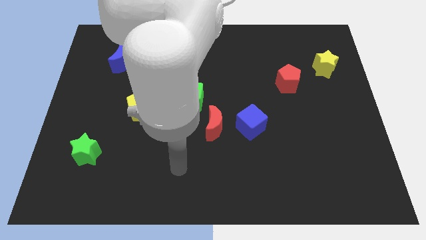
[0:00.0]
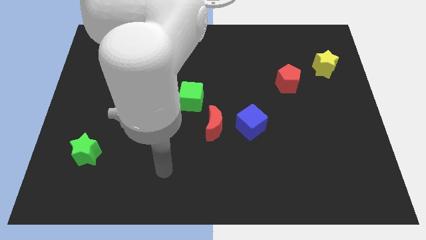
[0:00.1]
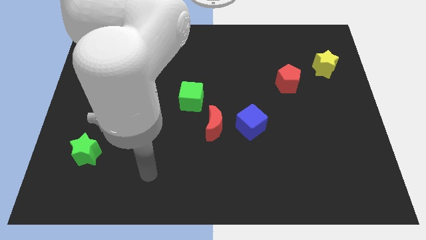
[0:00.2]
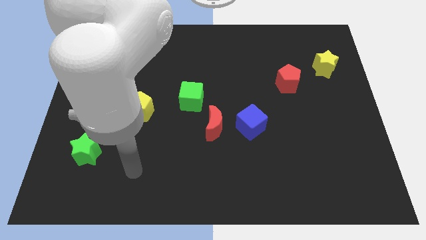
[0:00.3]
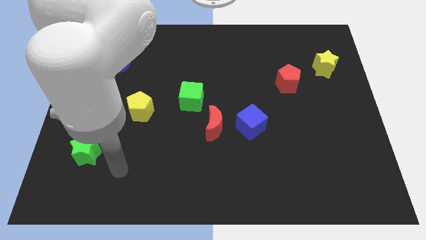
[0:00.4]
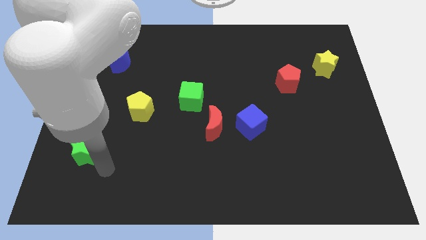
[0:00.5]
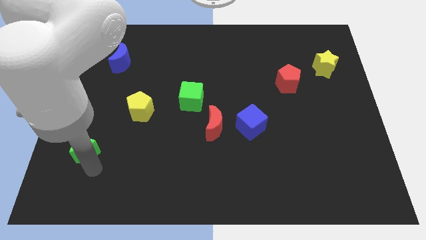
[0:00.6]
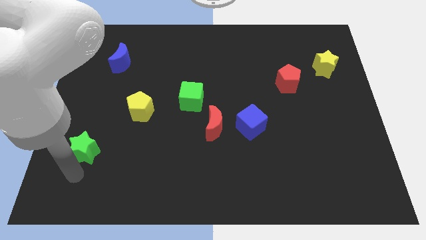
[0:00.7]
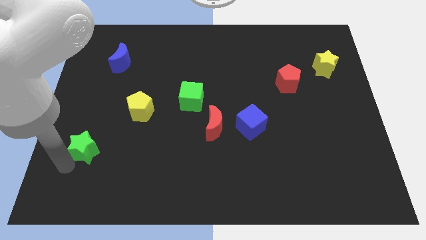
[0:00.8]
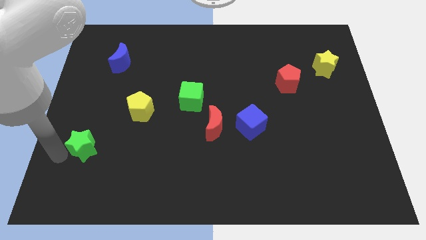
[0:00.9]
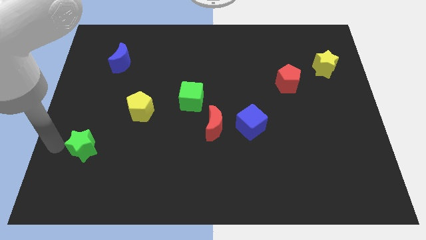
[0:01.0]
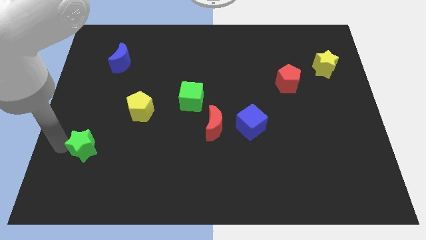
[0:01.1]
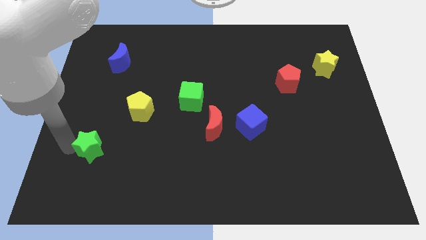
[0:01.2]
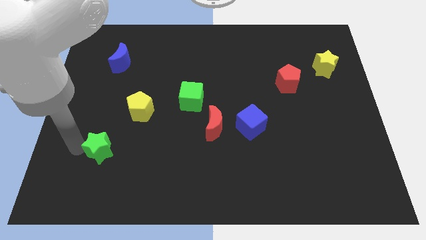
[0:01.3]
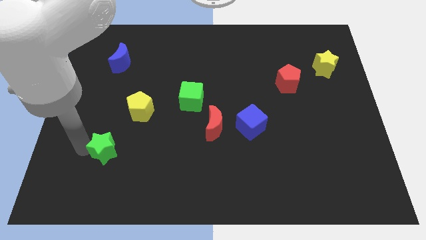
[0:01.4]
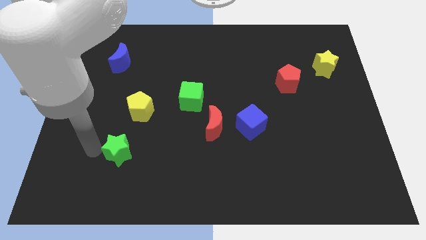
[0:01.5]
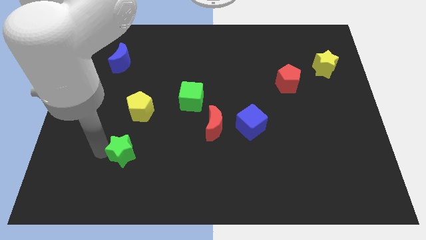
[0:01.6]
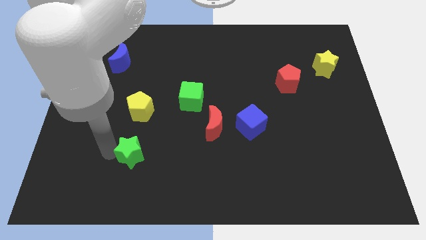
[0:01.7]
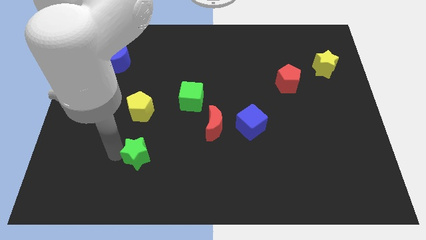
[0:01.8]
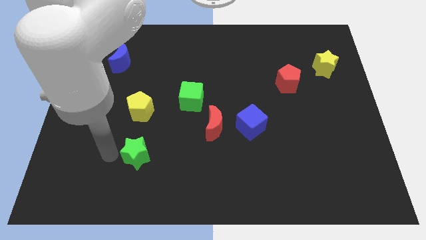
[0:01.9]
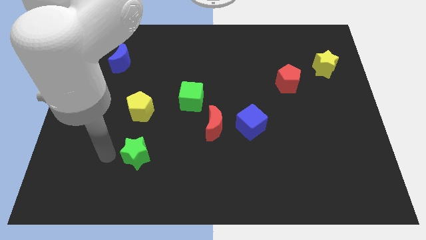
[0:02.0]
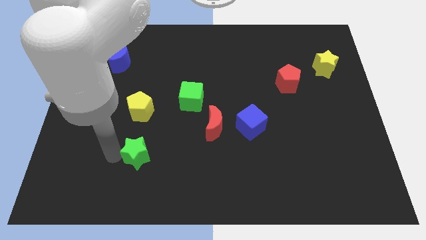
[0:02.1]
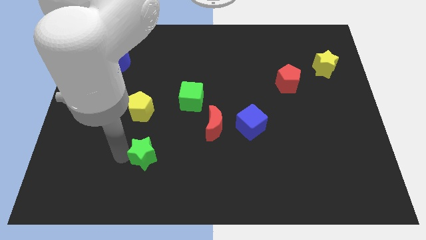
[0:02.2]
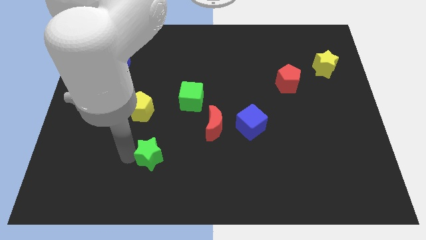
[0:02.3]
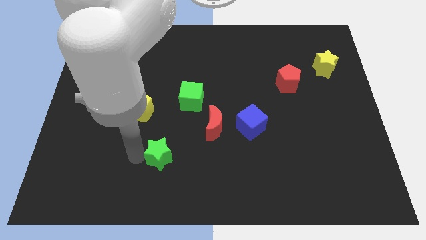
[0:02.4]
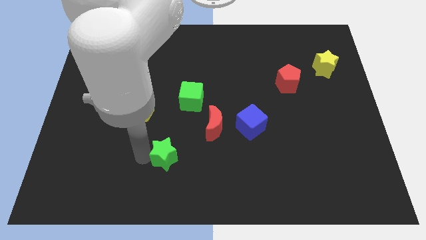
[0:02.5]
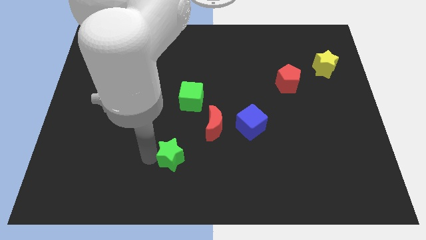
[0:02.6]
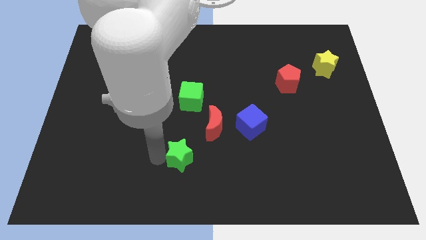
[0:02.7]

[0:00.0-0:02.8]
move the green star right

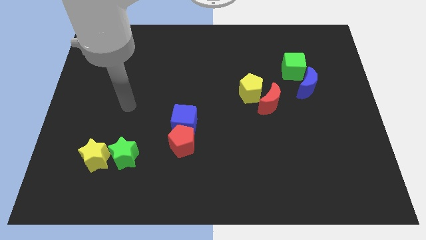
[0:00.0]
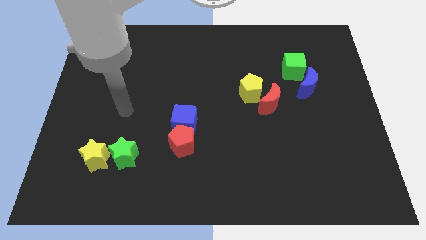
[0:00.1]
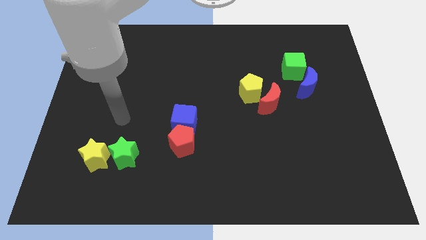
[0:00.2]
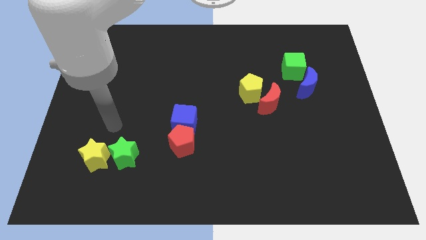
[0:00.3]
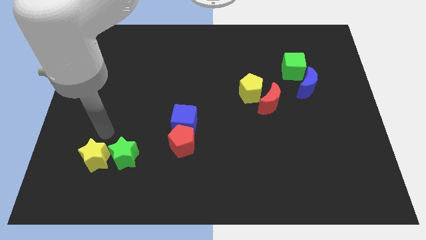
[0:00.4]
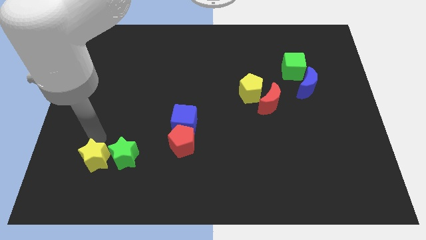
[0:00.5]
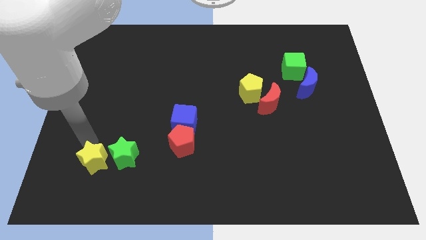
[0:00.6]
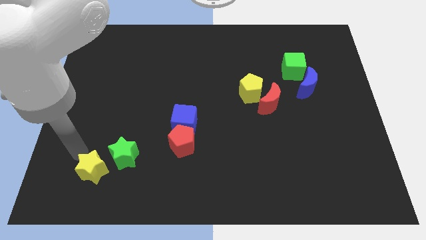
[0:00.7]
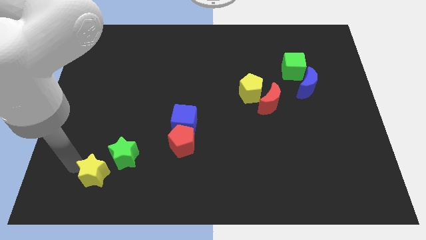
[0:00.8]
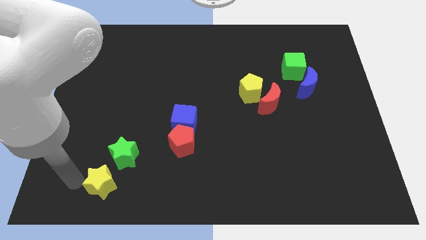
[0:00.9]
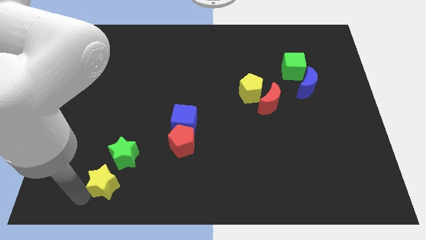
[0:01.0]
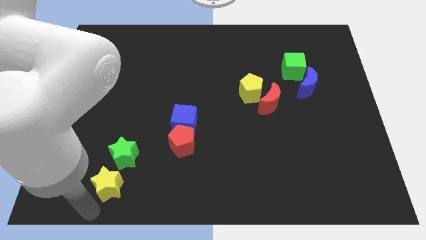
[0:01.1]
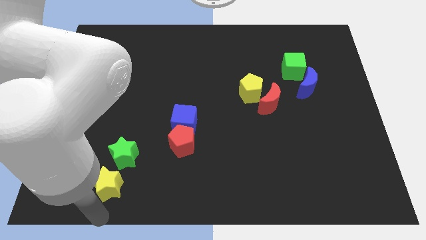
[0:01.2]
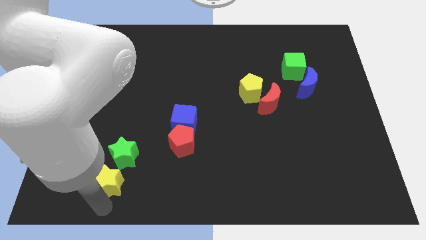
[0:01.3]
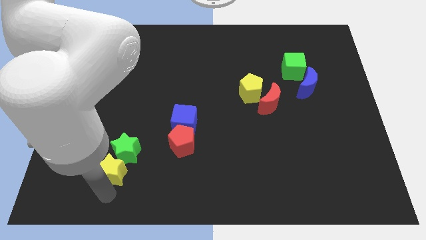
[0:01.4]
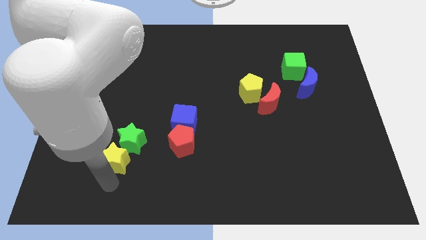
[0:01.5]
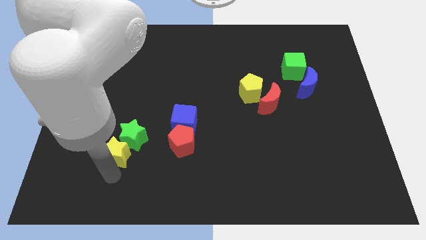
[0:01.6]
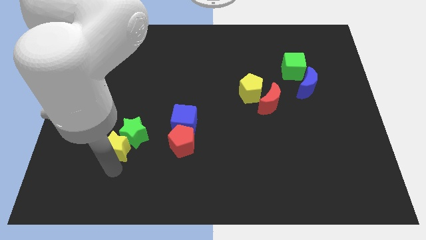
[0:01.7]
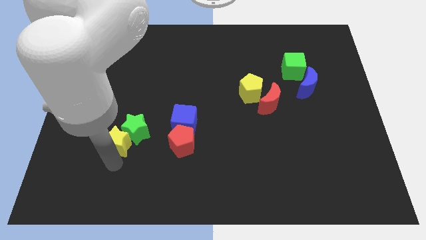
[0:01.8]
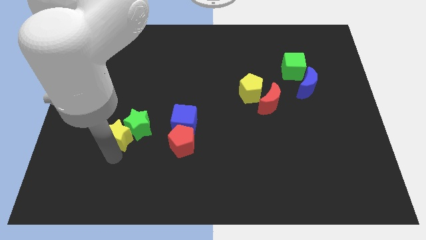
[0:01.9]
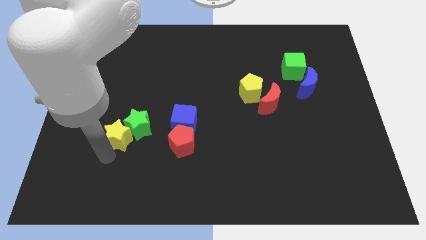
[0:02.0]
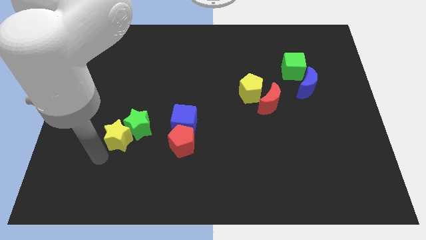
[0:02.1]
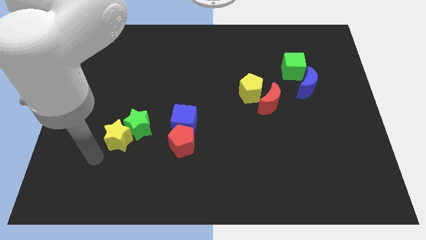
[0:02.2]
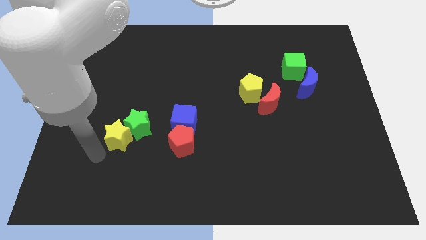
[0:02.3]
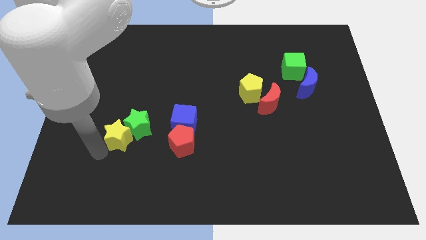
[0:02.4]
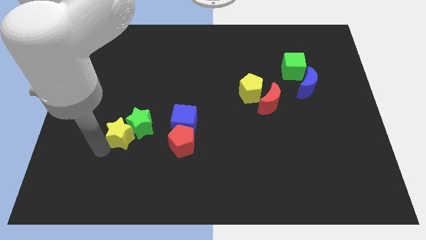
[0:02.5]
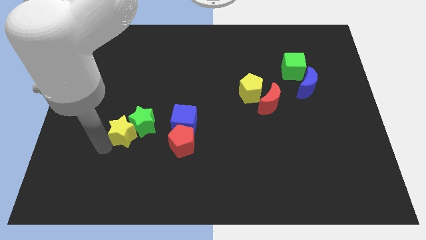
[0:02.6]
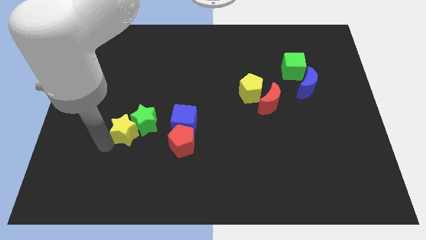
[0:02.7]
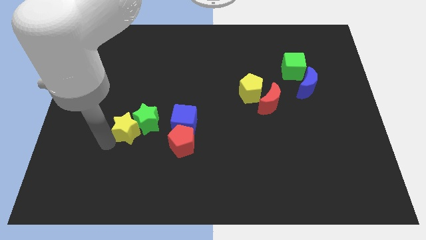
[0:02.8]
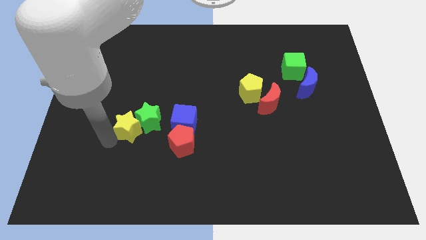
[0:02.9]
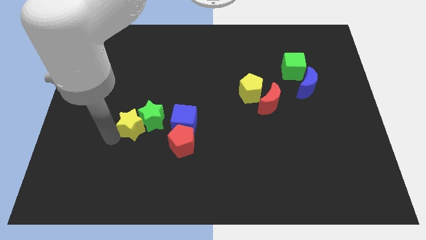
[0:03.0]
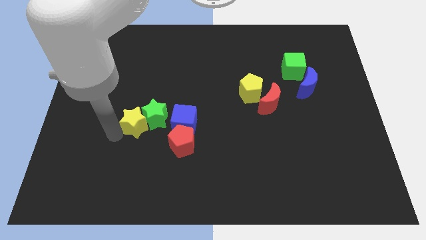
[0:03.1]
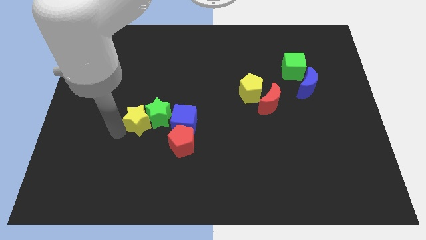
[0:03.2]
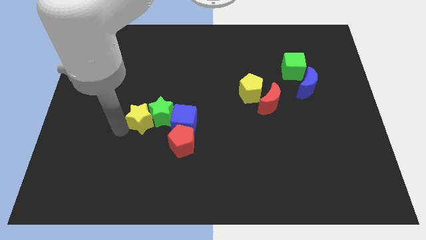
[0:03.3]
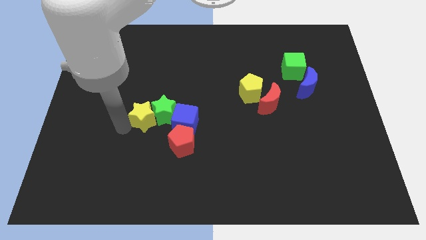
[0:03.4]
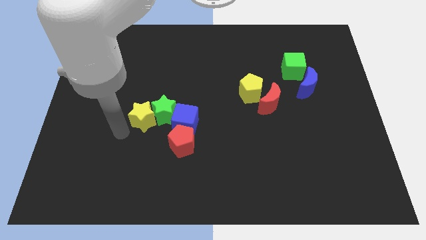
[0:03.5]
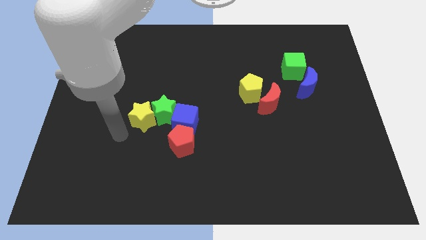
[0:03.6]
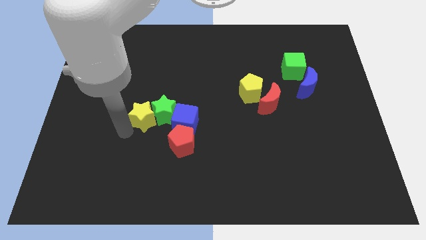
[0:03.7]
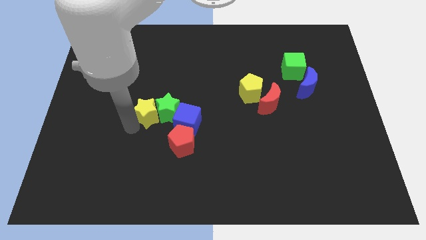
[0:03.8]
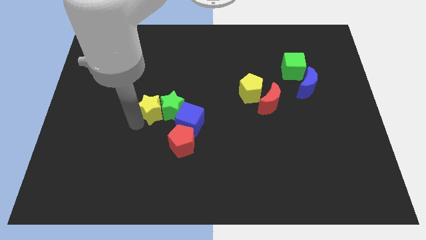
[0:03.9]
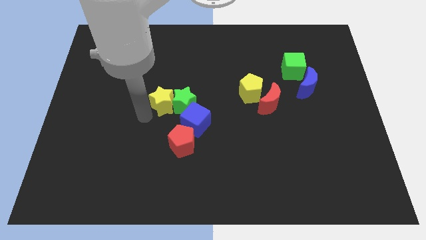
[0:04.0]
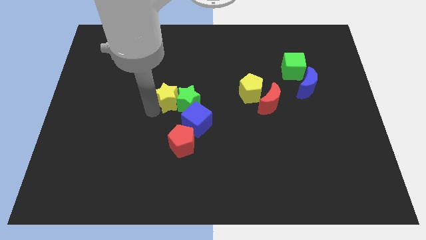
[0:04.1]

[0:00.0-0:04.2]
move the yellow star diagonally up and to the right

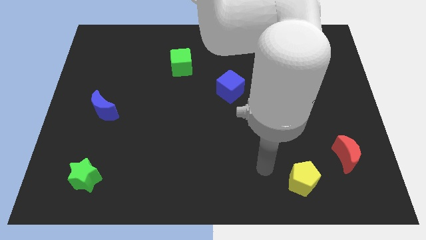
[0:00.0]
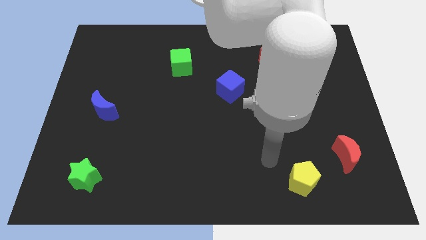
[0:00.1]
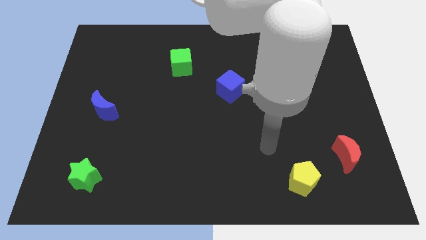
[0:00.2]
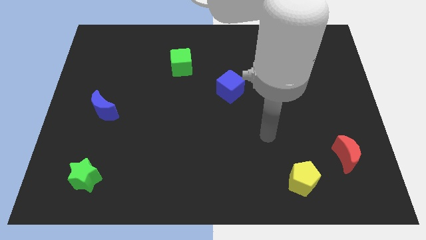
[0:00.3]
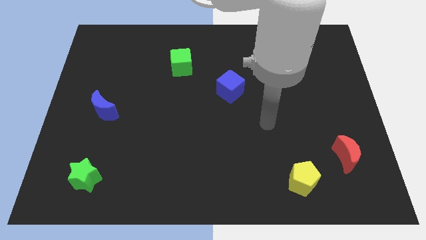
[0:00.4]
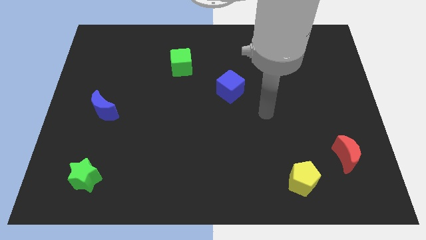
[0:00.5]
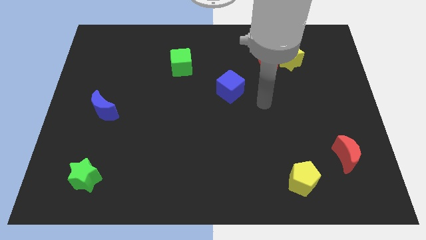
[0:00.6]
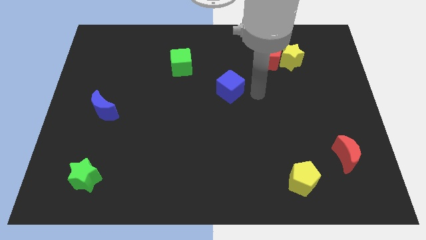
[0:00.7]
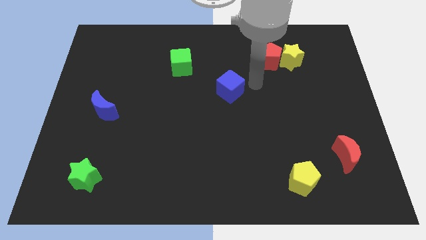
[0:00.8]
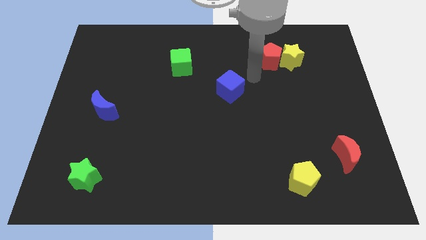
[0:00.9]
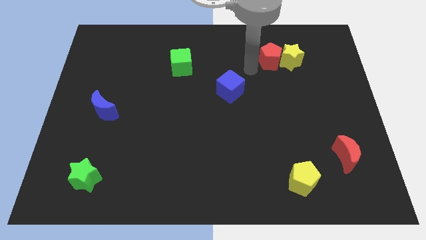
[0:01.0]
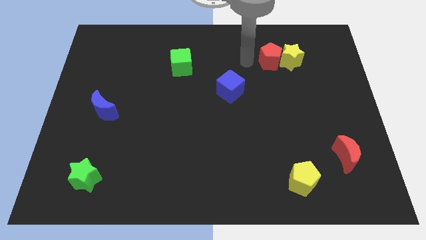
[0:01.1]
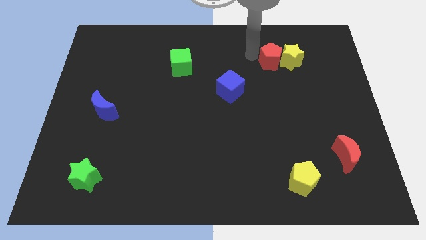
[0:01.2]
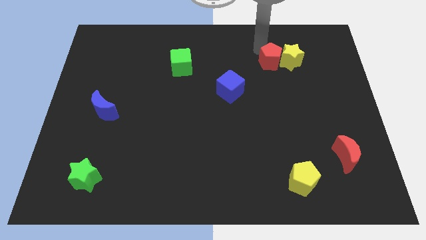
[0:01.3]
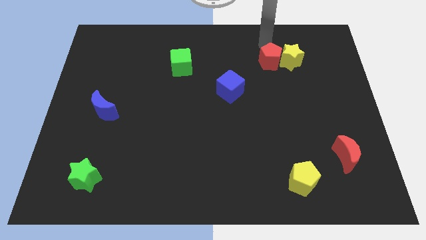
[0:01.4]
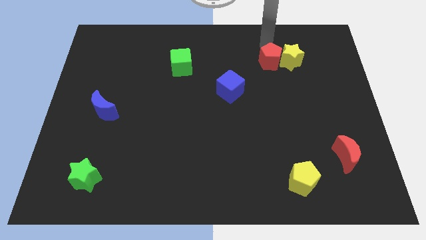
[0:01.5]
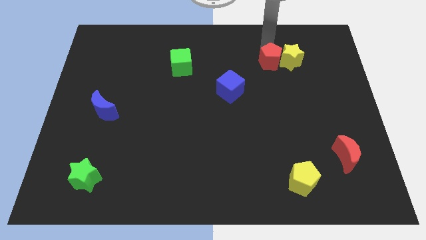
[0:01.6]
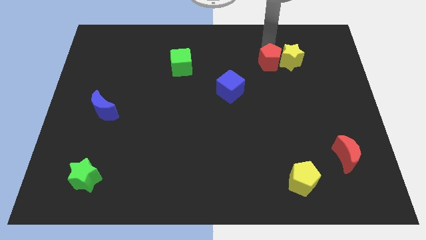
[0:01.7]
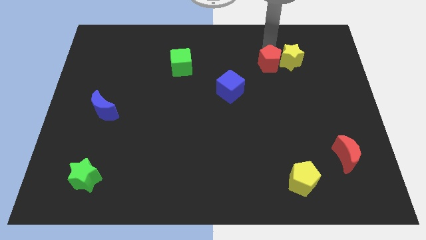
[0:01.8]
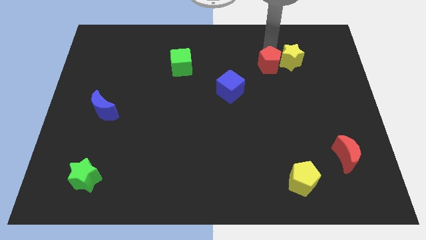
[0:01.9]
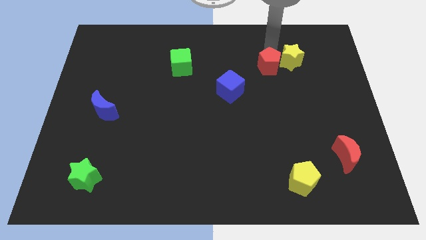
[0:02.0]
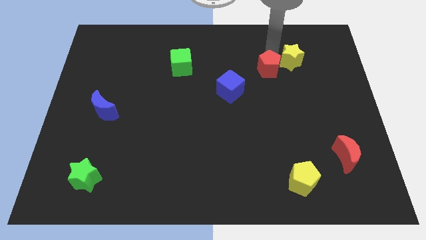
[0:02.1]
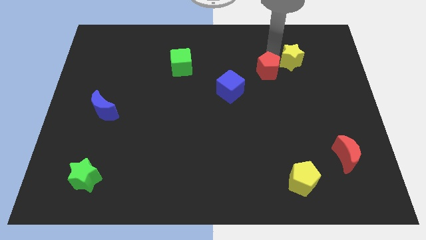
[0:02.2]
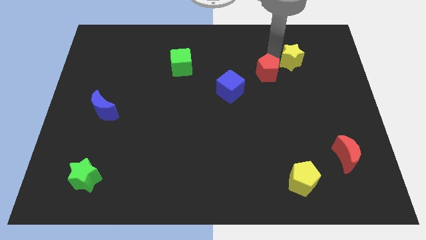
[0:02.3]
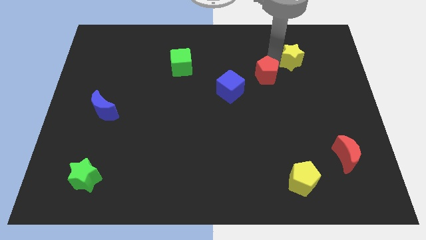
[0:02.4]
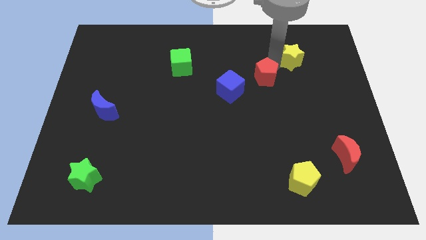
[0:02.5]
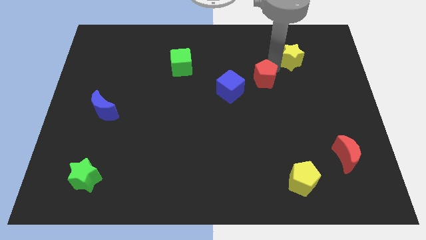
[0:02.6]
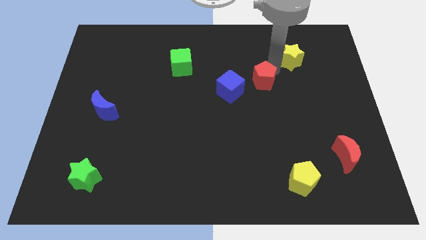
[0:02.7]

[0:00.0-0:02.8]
push the red pentagon a little bit downwards
